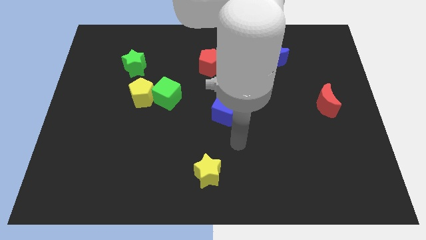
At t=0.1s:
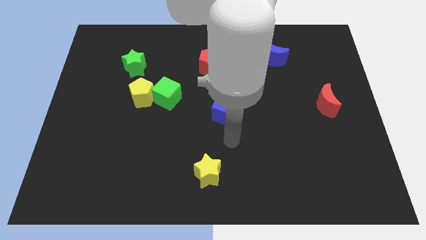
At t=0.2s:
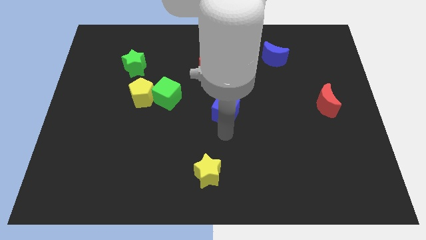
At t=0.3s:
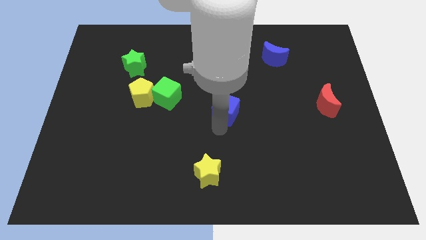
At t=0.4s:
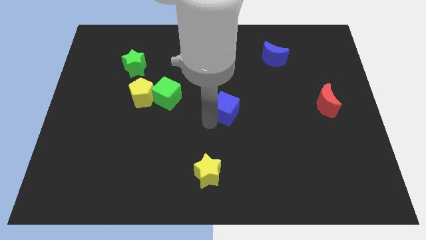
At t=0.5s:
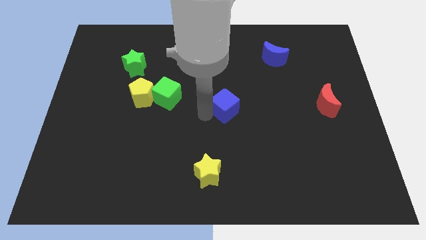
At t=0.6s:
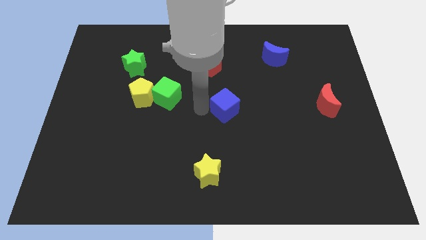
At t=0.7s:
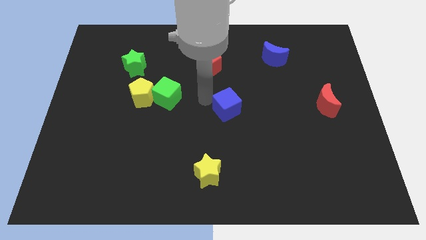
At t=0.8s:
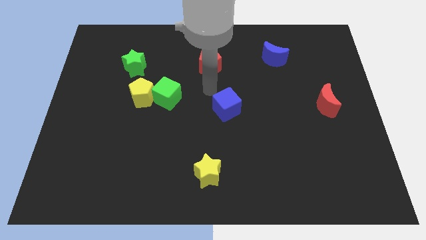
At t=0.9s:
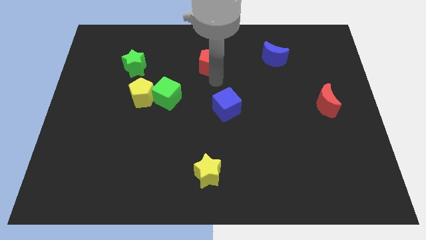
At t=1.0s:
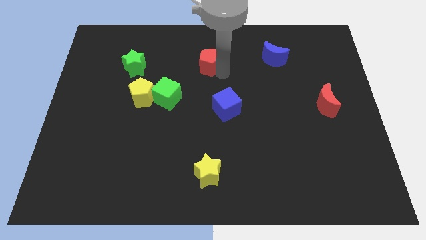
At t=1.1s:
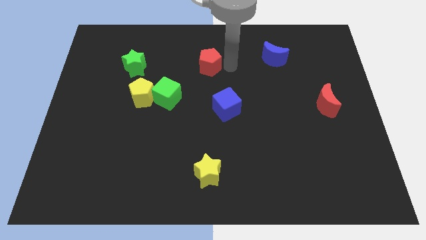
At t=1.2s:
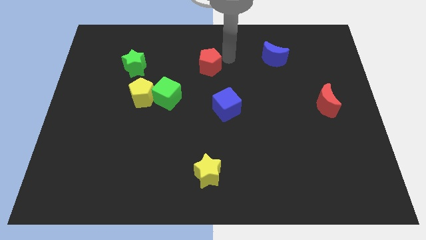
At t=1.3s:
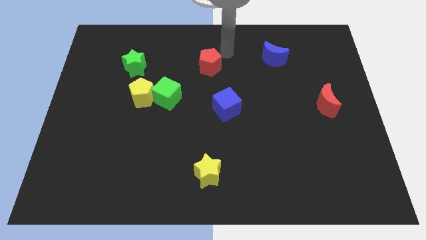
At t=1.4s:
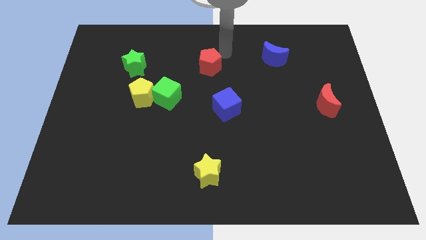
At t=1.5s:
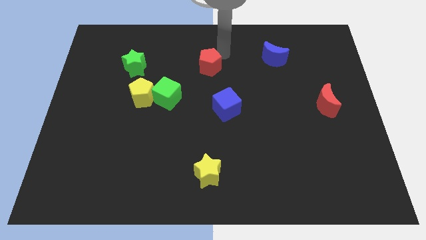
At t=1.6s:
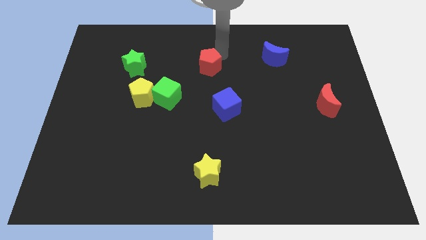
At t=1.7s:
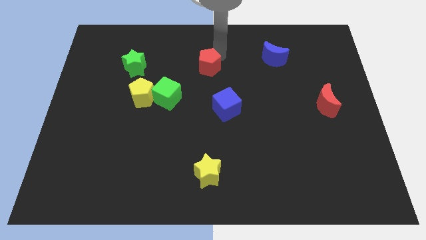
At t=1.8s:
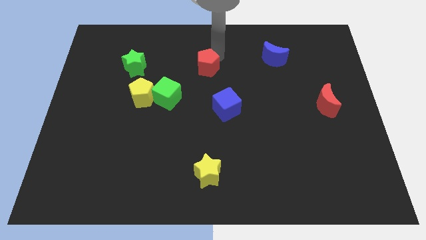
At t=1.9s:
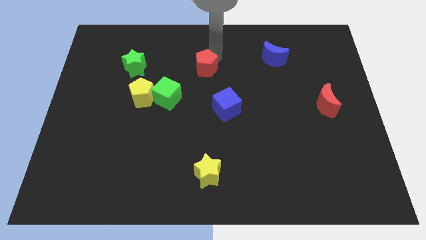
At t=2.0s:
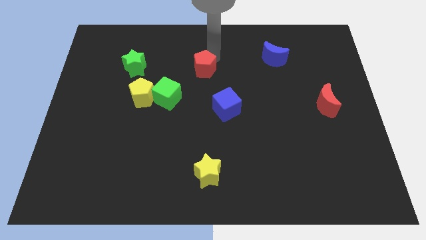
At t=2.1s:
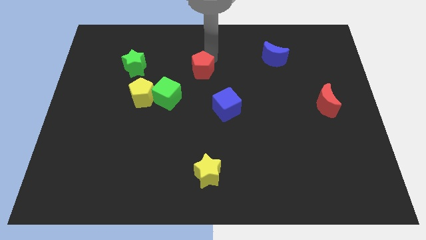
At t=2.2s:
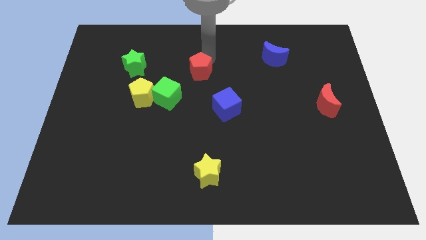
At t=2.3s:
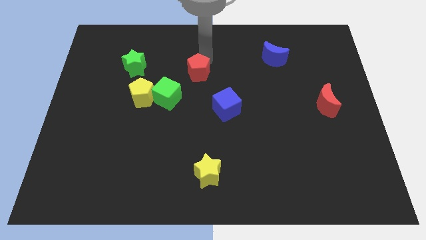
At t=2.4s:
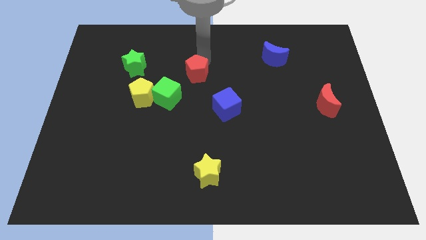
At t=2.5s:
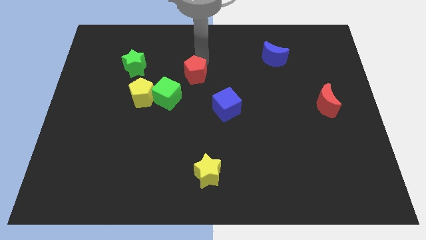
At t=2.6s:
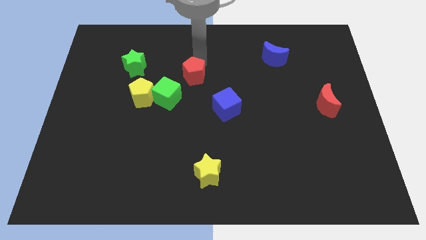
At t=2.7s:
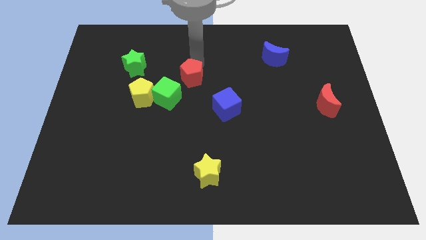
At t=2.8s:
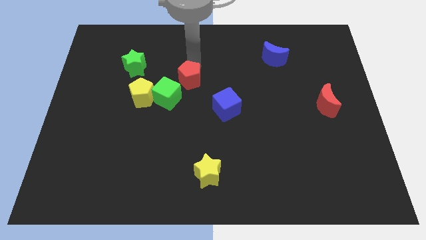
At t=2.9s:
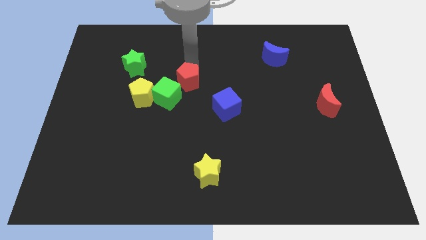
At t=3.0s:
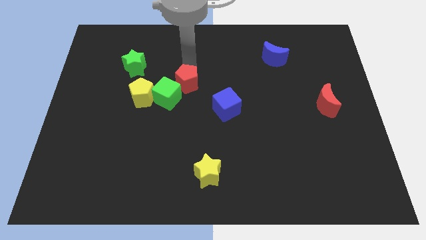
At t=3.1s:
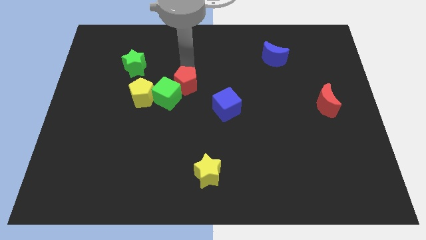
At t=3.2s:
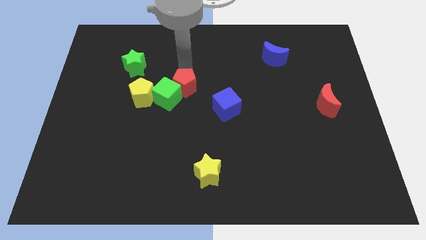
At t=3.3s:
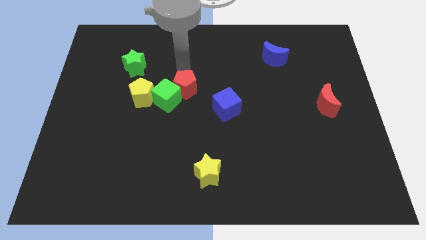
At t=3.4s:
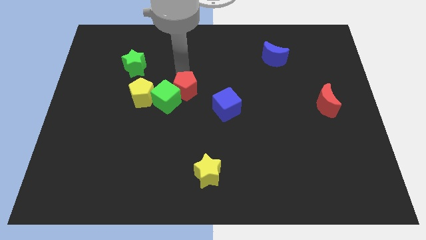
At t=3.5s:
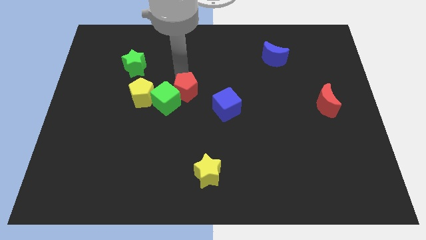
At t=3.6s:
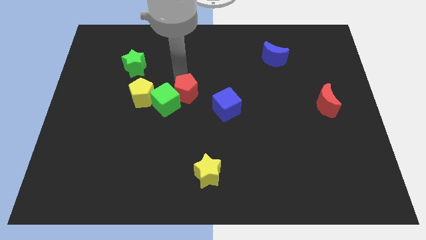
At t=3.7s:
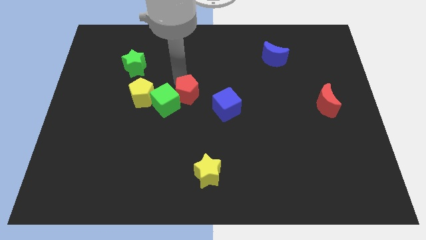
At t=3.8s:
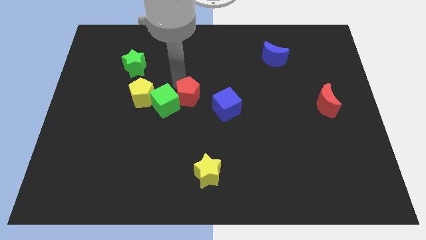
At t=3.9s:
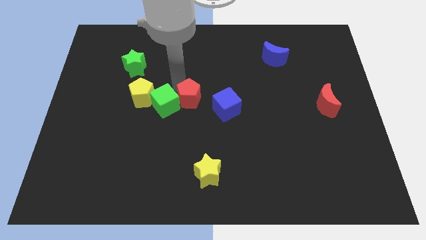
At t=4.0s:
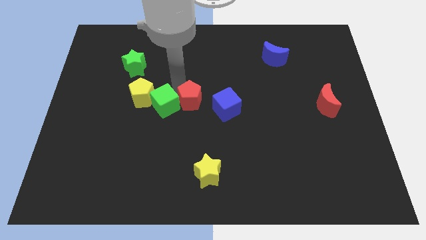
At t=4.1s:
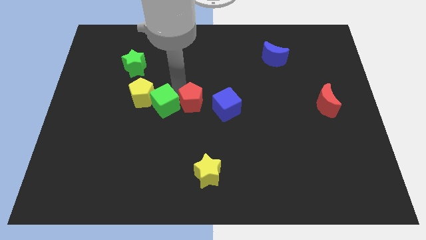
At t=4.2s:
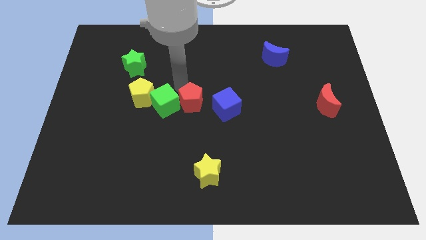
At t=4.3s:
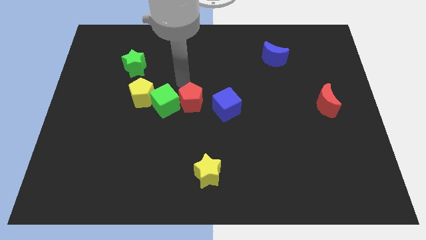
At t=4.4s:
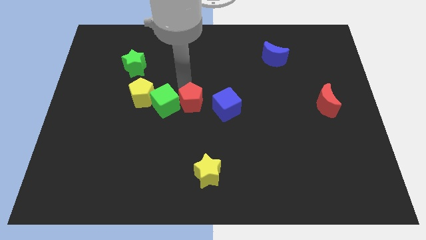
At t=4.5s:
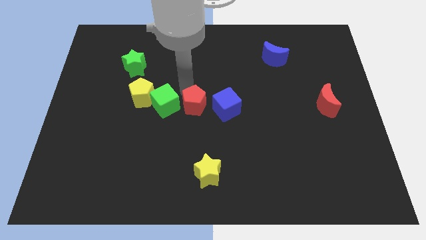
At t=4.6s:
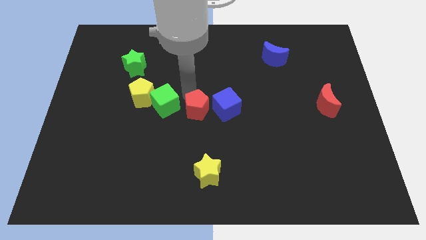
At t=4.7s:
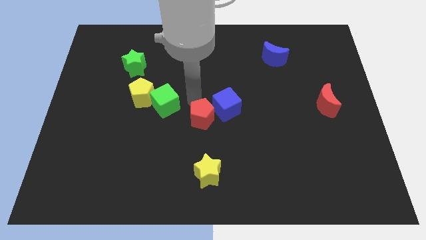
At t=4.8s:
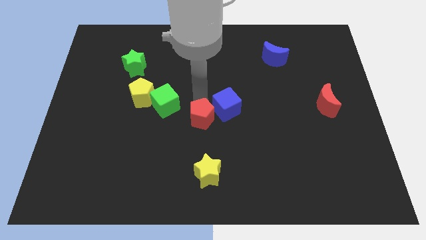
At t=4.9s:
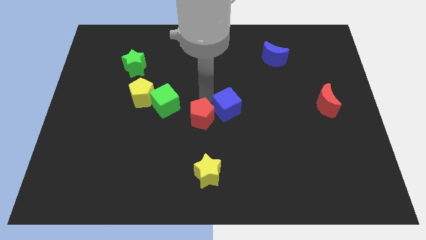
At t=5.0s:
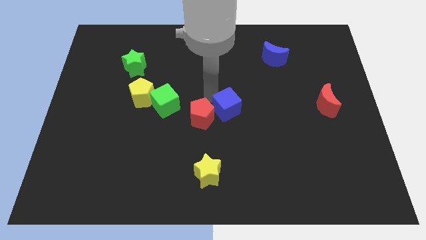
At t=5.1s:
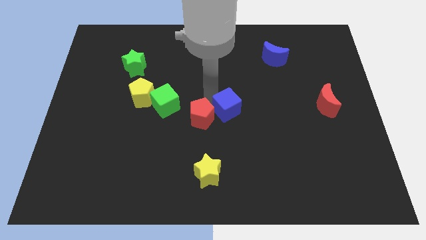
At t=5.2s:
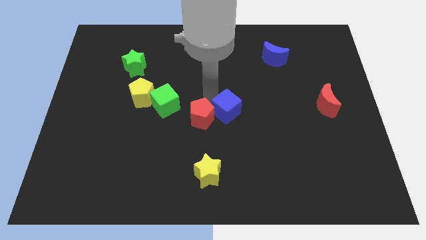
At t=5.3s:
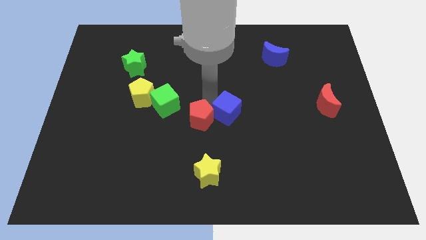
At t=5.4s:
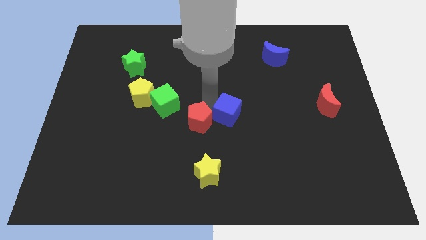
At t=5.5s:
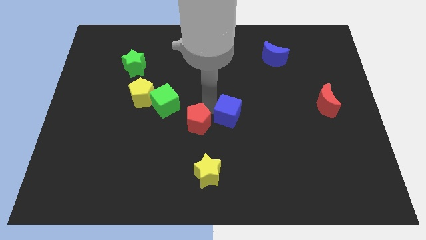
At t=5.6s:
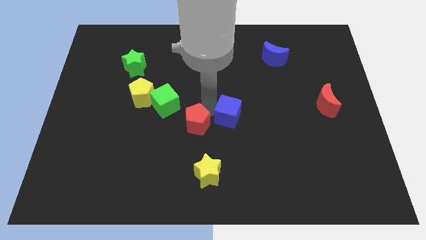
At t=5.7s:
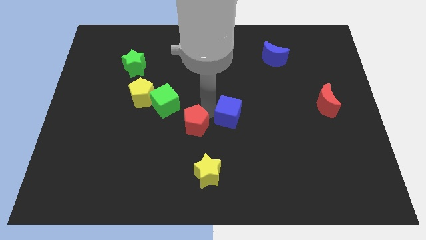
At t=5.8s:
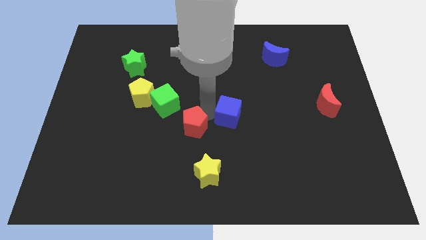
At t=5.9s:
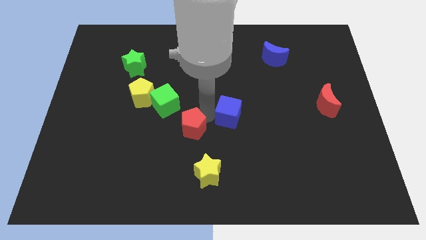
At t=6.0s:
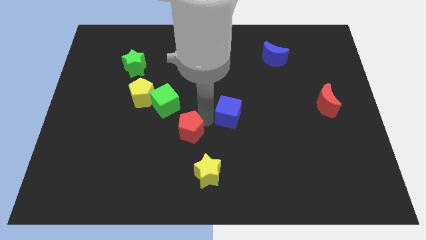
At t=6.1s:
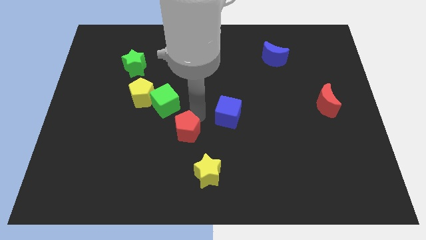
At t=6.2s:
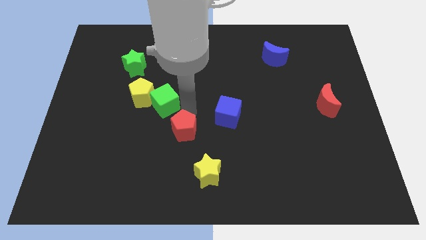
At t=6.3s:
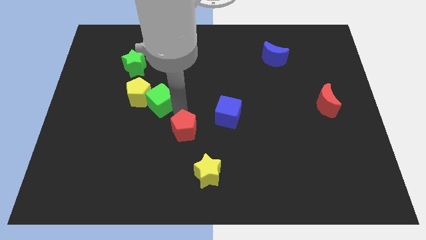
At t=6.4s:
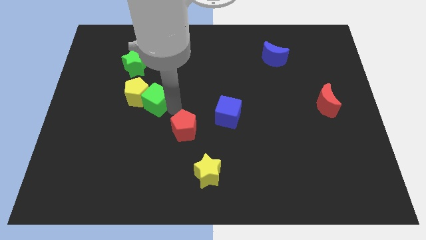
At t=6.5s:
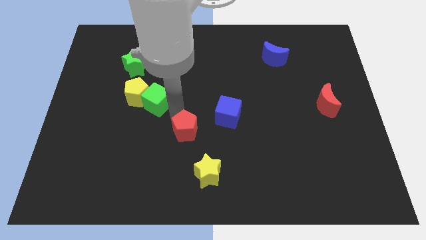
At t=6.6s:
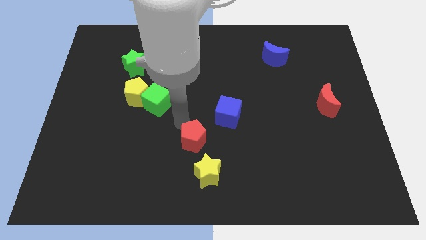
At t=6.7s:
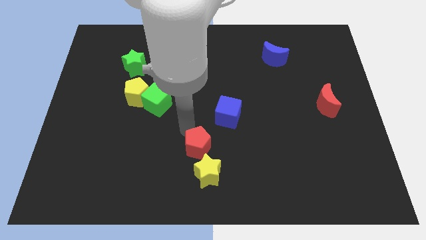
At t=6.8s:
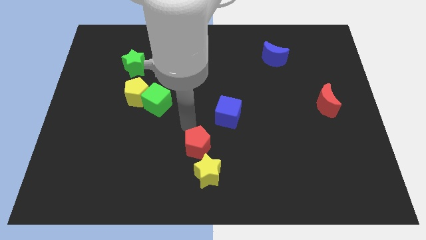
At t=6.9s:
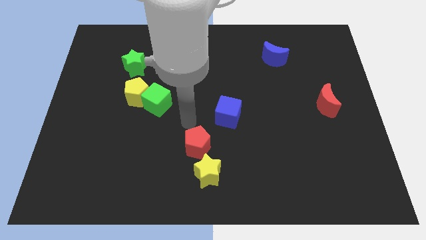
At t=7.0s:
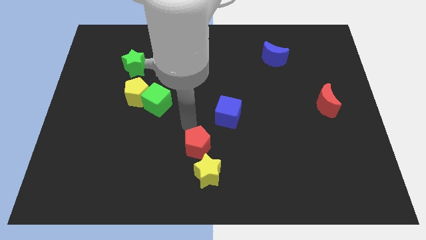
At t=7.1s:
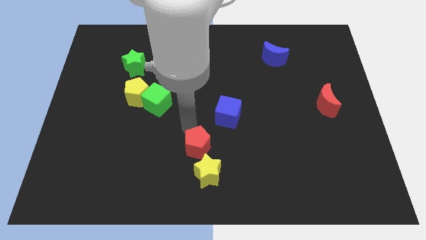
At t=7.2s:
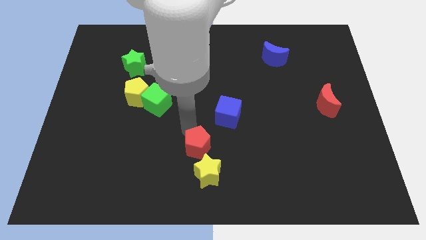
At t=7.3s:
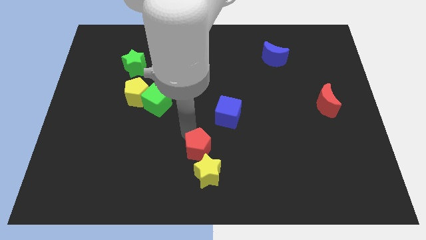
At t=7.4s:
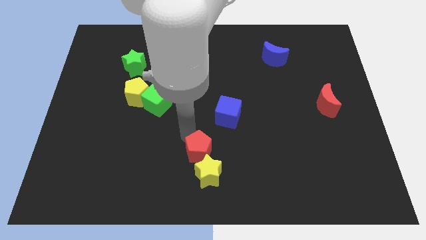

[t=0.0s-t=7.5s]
slide the red pentagon next to the yellow star
